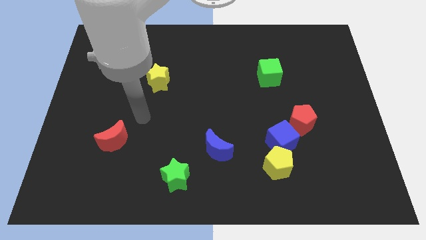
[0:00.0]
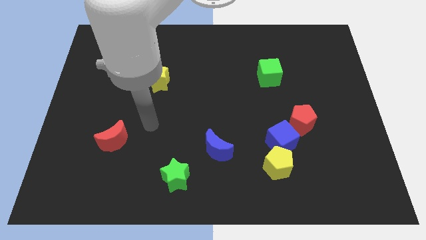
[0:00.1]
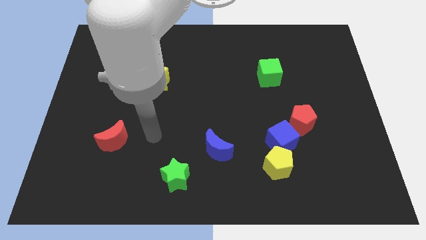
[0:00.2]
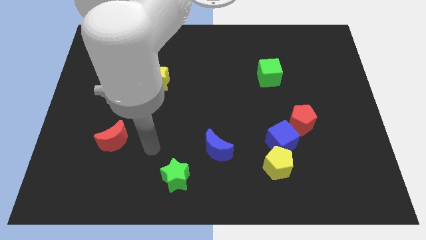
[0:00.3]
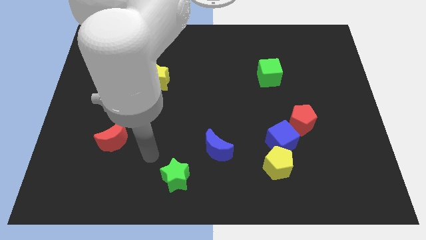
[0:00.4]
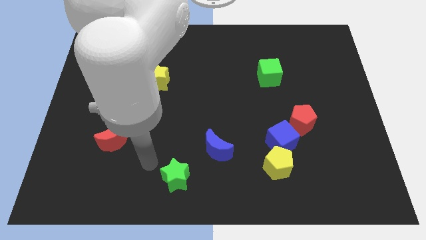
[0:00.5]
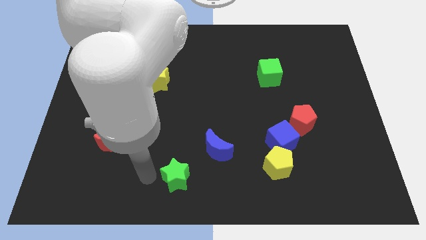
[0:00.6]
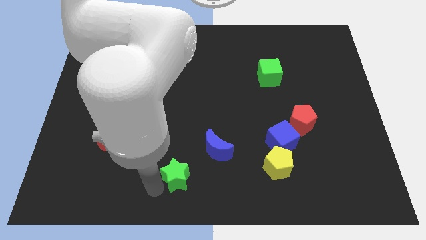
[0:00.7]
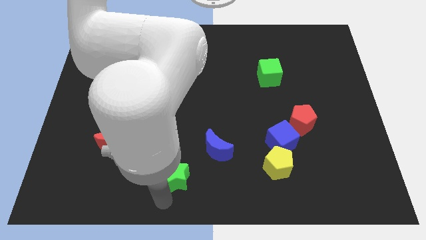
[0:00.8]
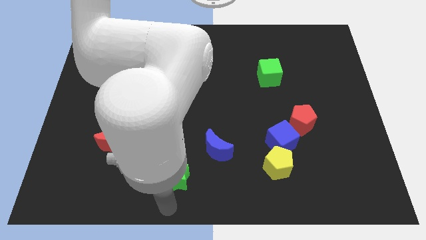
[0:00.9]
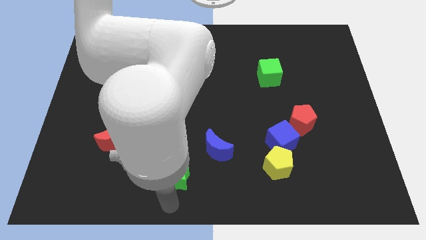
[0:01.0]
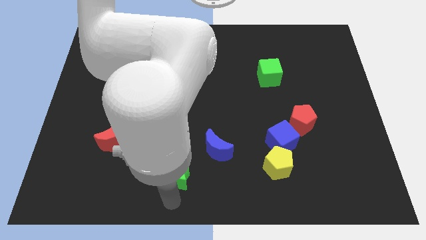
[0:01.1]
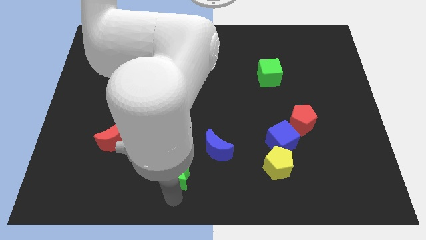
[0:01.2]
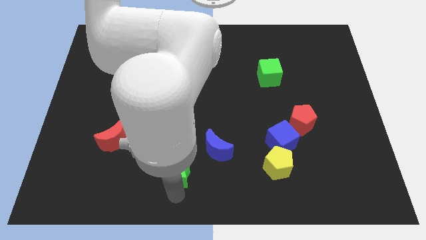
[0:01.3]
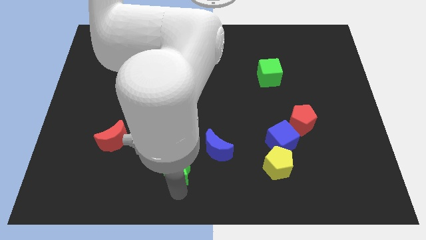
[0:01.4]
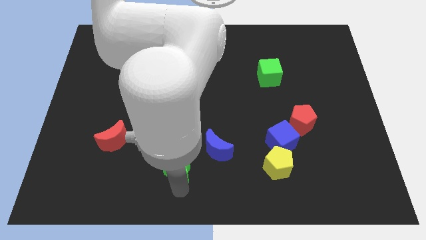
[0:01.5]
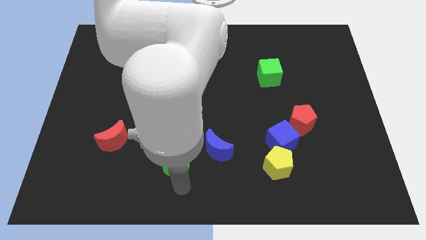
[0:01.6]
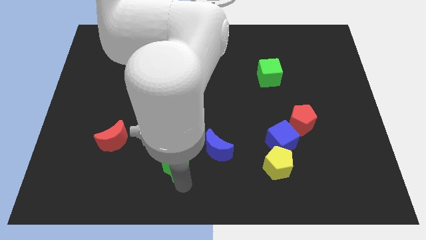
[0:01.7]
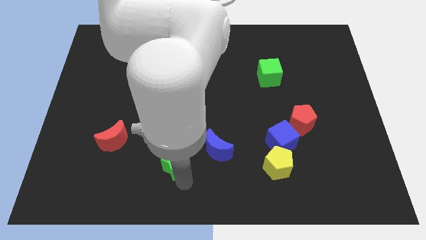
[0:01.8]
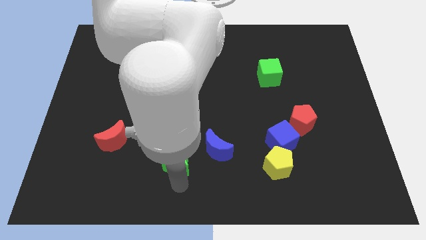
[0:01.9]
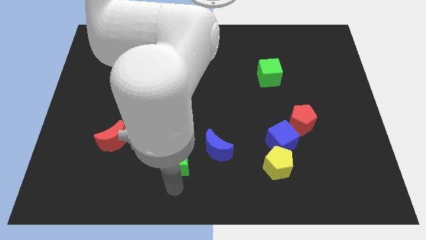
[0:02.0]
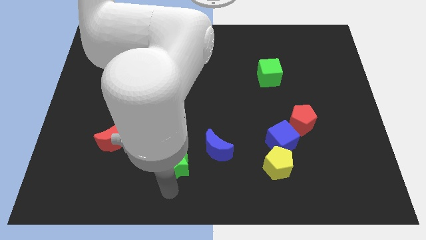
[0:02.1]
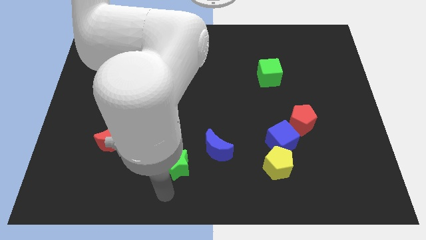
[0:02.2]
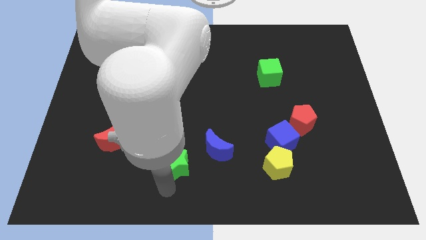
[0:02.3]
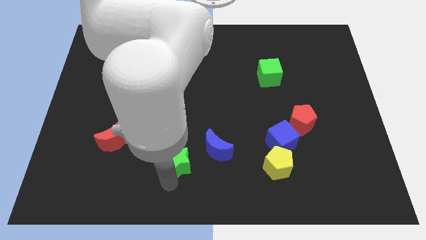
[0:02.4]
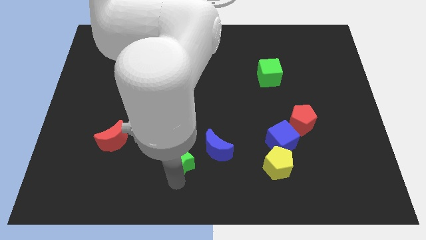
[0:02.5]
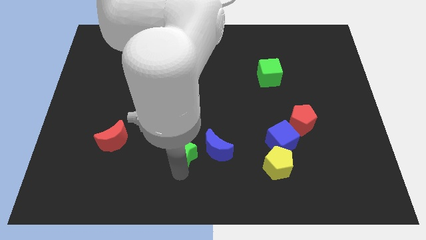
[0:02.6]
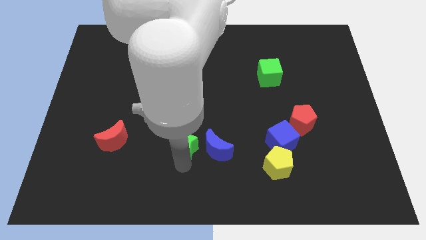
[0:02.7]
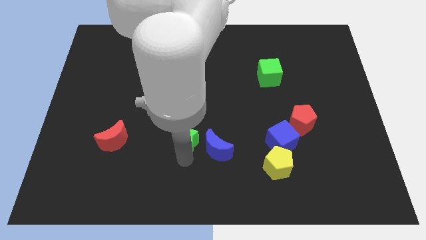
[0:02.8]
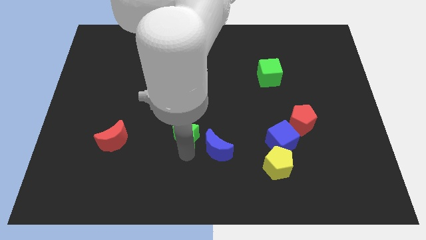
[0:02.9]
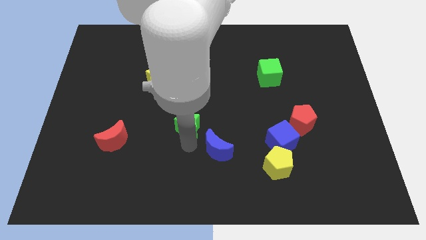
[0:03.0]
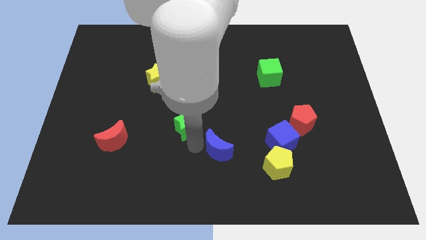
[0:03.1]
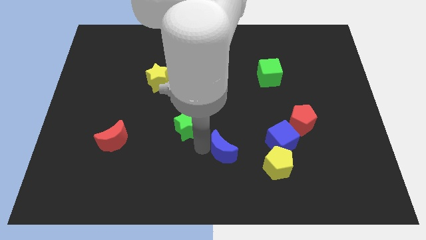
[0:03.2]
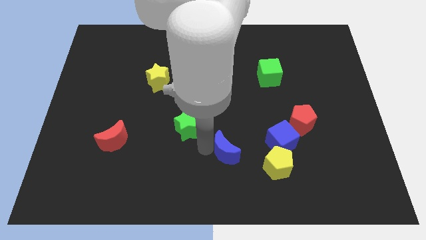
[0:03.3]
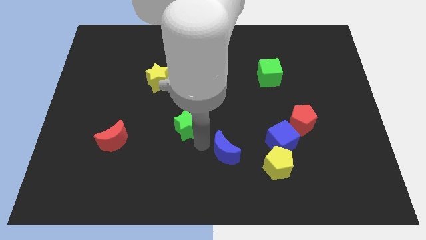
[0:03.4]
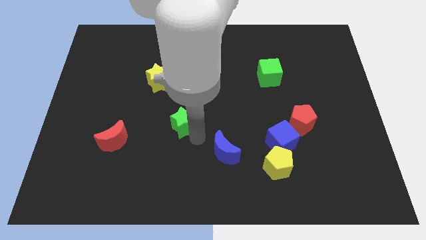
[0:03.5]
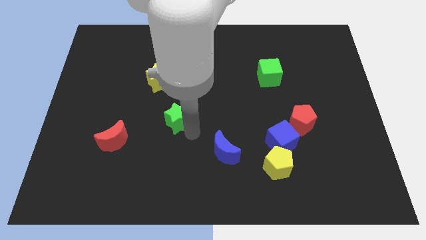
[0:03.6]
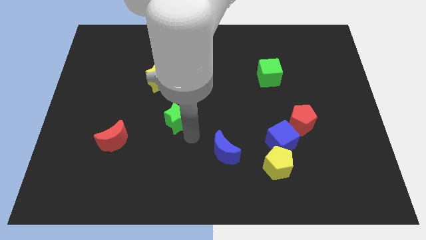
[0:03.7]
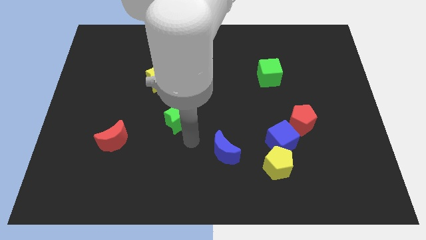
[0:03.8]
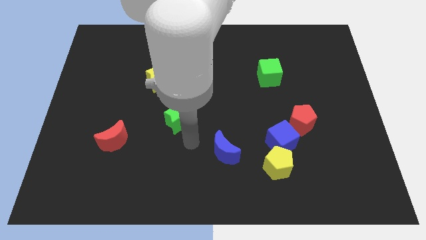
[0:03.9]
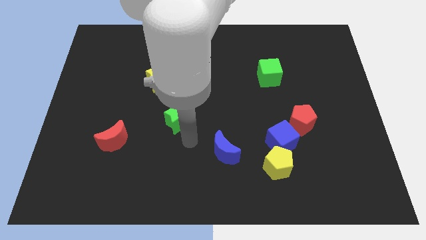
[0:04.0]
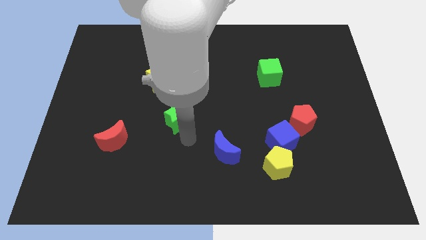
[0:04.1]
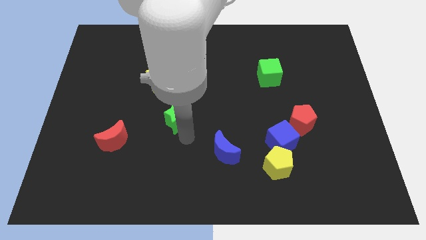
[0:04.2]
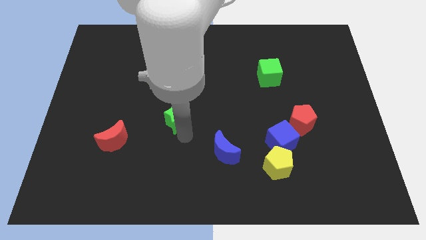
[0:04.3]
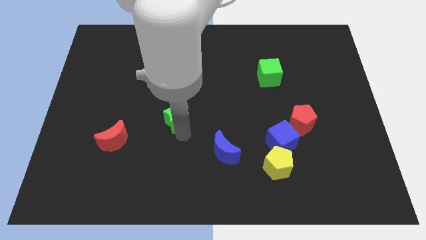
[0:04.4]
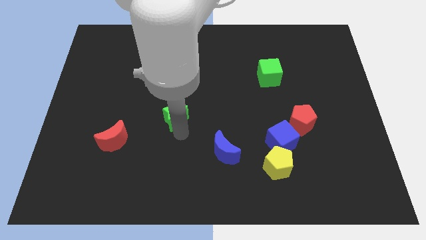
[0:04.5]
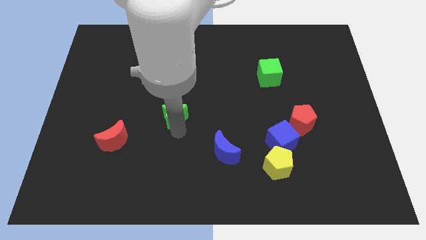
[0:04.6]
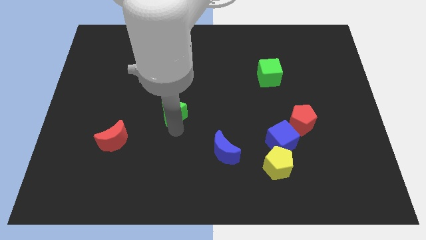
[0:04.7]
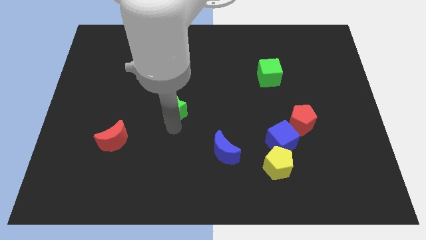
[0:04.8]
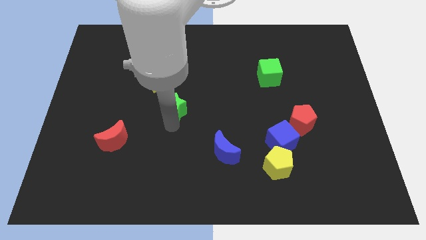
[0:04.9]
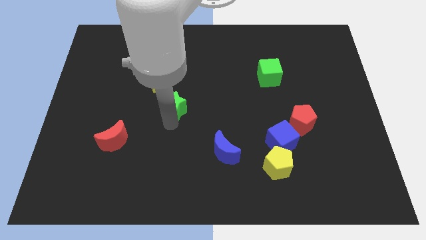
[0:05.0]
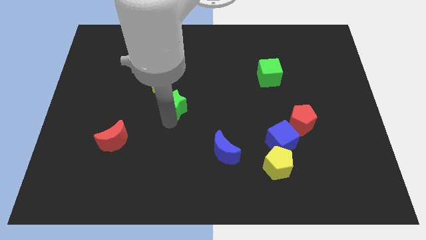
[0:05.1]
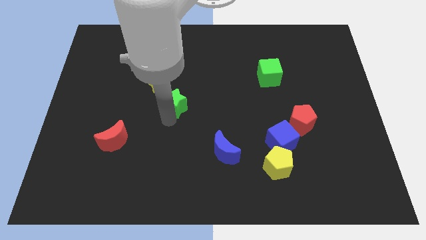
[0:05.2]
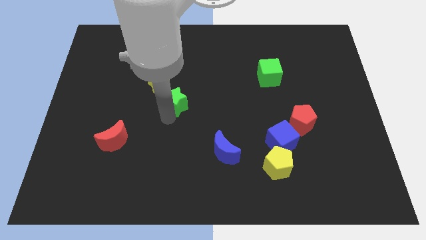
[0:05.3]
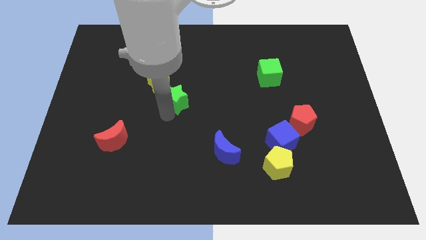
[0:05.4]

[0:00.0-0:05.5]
slide the green star upwards

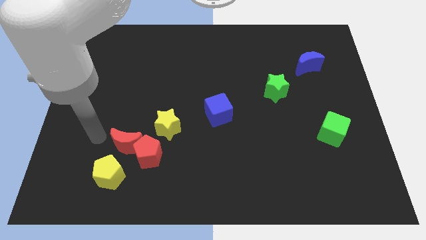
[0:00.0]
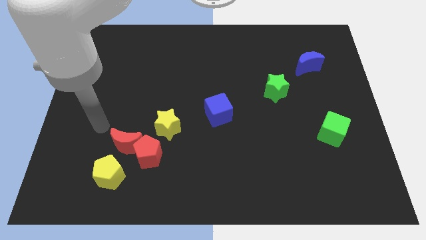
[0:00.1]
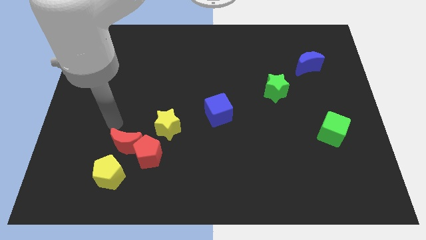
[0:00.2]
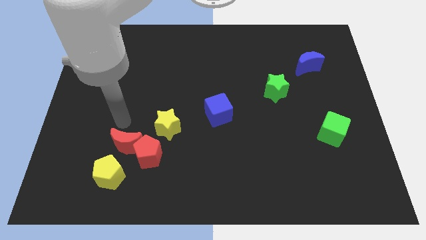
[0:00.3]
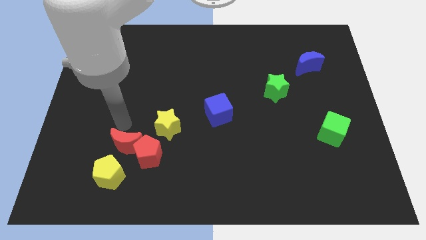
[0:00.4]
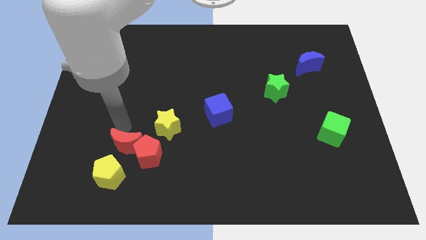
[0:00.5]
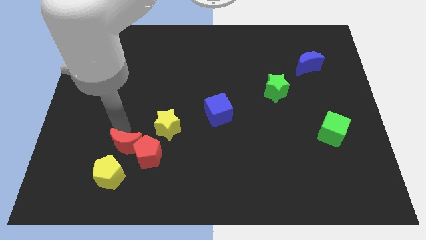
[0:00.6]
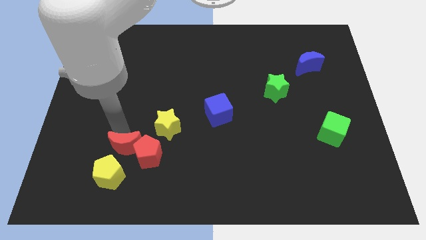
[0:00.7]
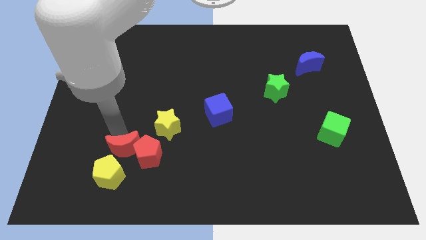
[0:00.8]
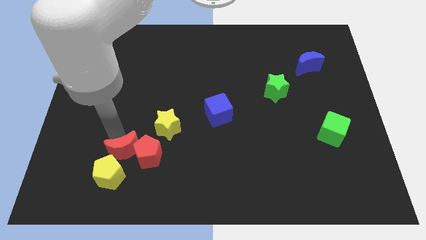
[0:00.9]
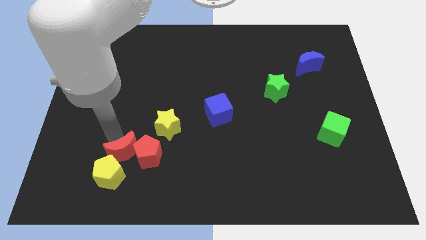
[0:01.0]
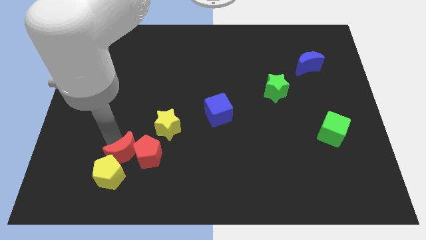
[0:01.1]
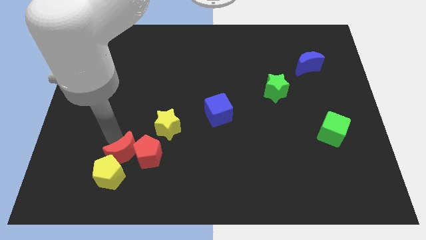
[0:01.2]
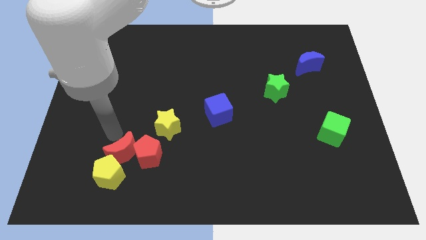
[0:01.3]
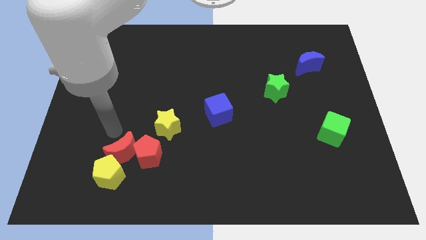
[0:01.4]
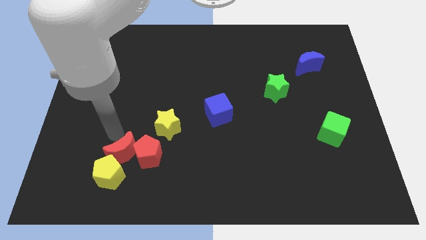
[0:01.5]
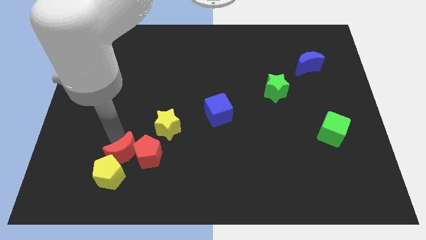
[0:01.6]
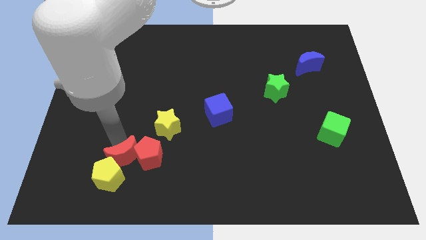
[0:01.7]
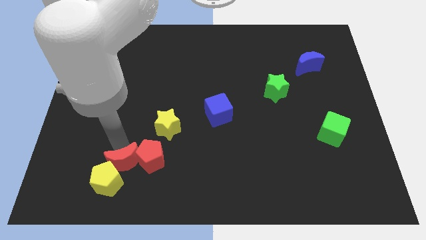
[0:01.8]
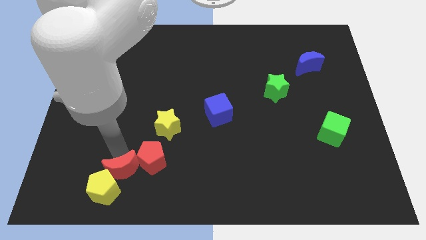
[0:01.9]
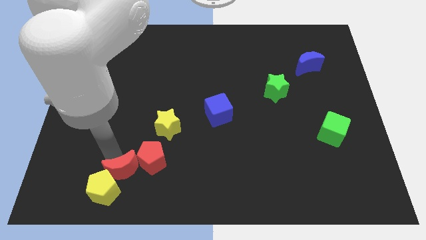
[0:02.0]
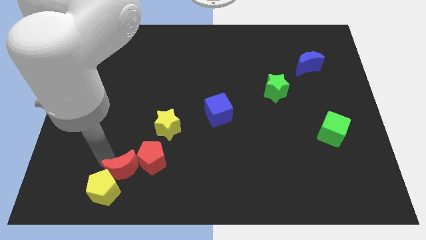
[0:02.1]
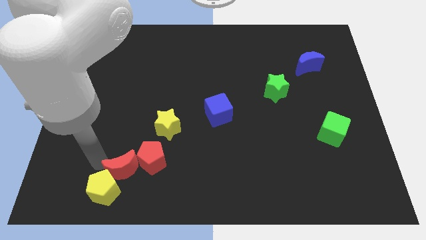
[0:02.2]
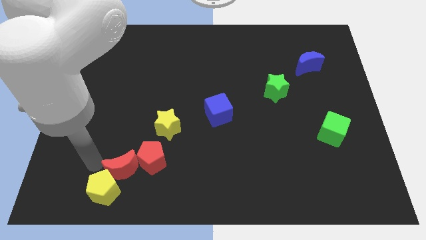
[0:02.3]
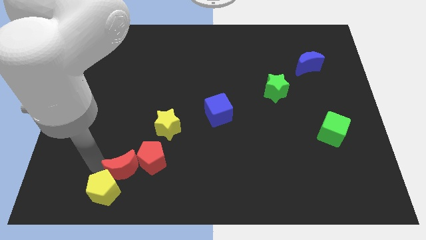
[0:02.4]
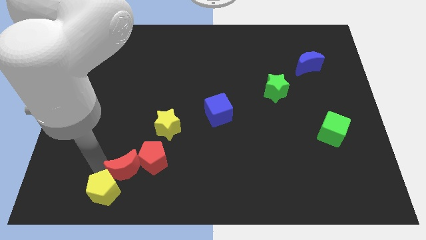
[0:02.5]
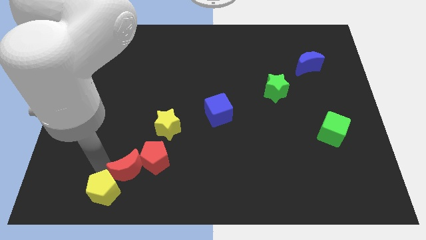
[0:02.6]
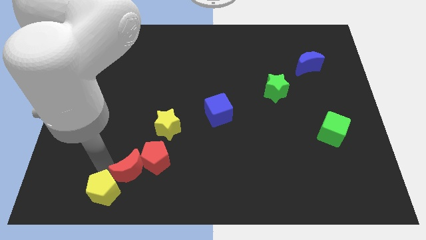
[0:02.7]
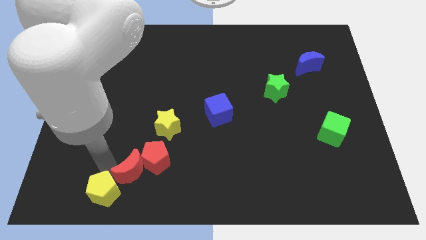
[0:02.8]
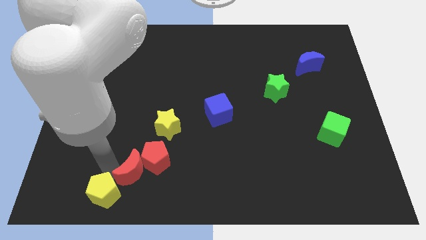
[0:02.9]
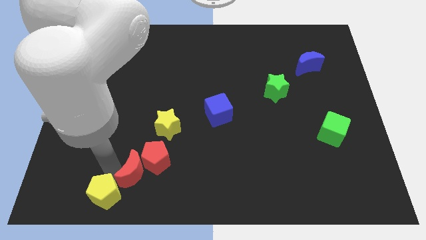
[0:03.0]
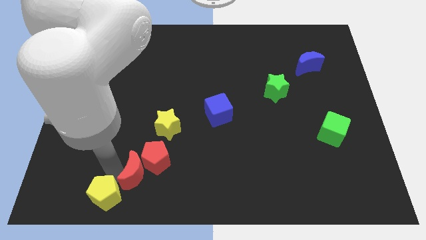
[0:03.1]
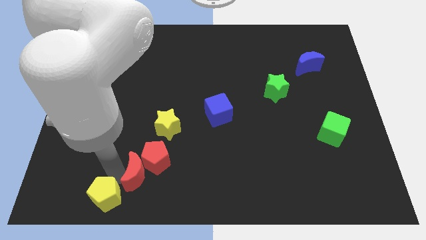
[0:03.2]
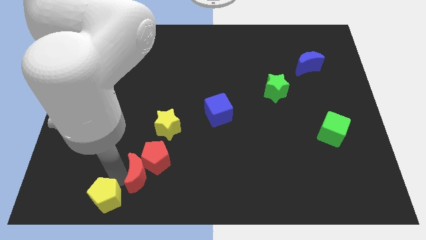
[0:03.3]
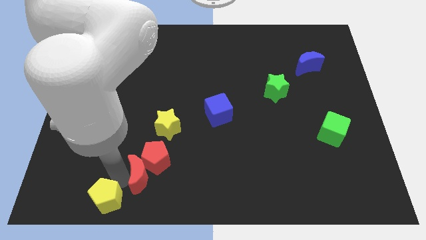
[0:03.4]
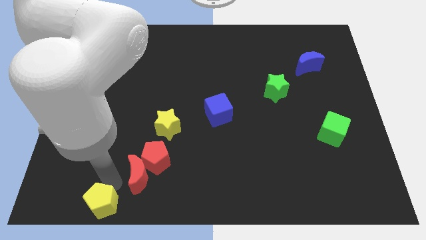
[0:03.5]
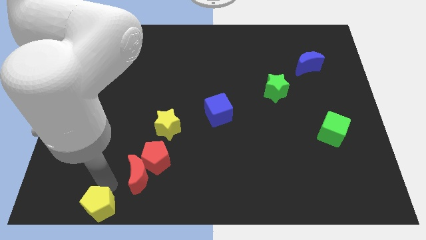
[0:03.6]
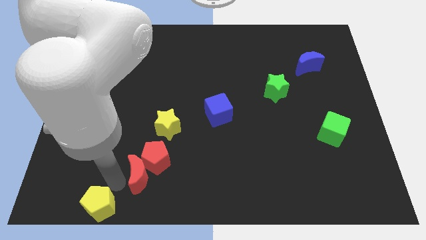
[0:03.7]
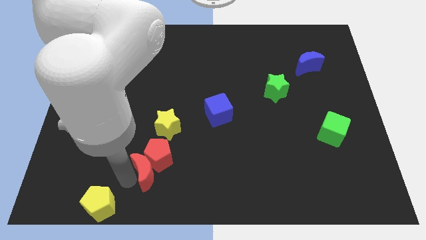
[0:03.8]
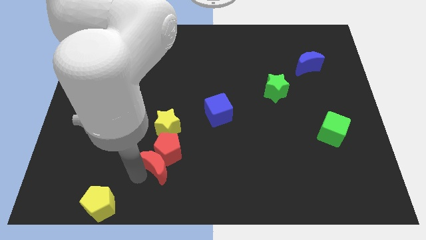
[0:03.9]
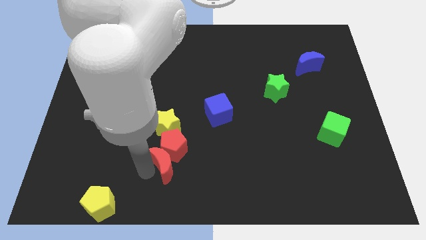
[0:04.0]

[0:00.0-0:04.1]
slightly slide the red moon to the right
